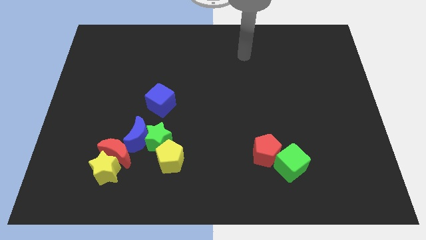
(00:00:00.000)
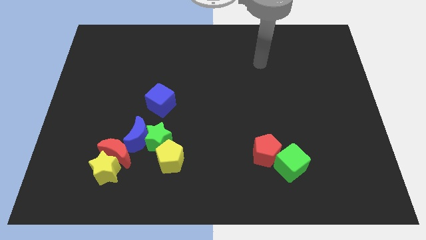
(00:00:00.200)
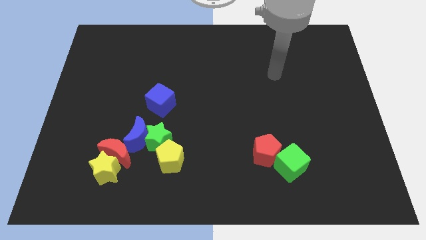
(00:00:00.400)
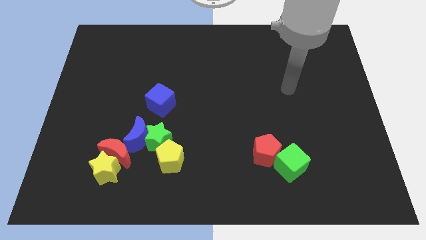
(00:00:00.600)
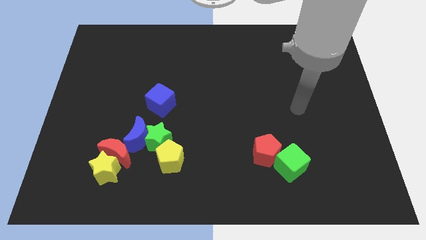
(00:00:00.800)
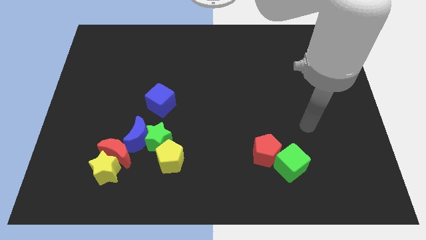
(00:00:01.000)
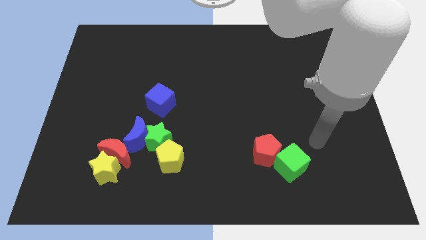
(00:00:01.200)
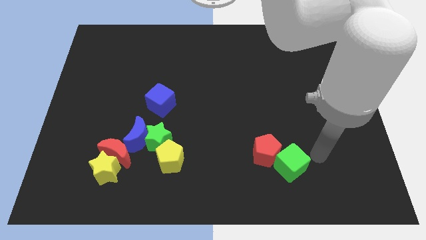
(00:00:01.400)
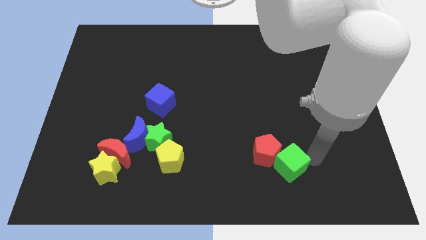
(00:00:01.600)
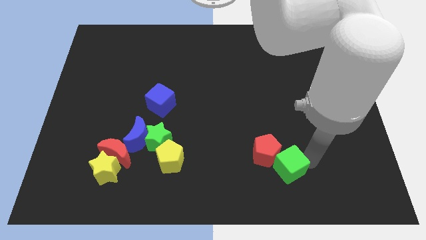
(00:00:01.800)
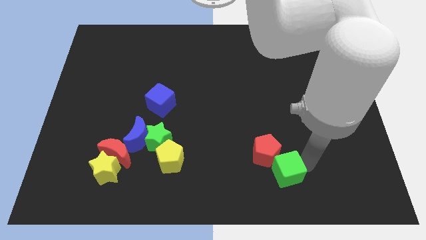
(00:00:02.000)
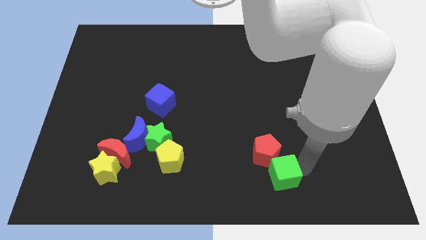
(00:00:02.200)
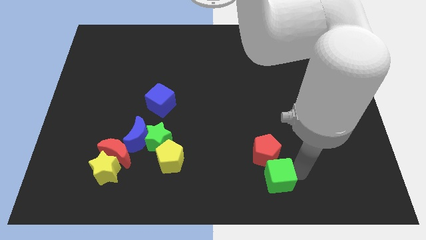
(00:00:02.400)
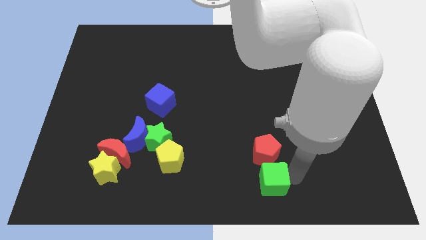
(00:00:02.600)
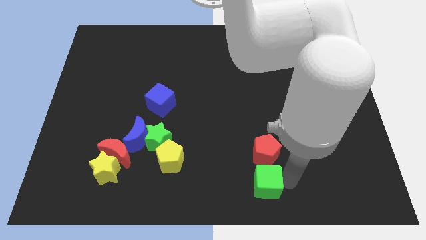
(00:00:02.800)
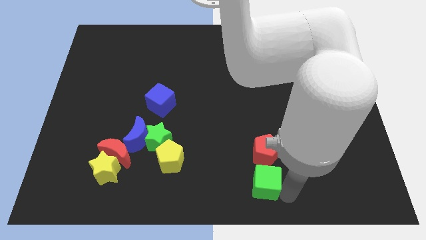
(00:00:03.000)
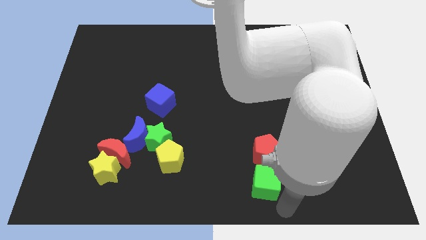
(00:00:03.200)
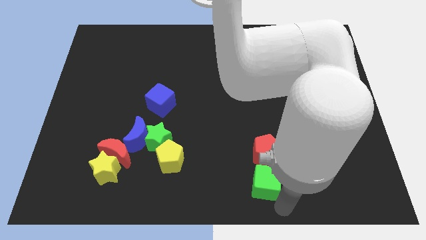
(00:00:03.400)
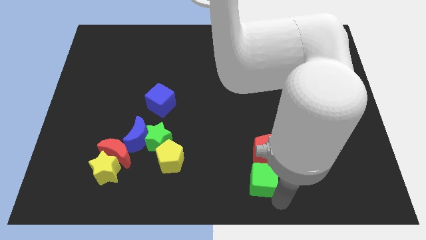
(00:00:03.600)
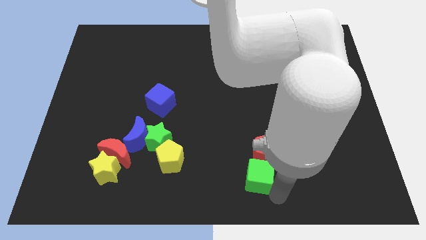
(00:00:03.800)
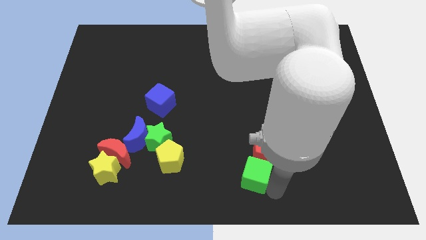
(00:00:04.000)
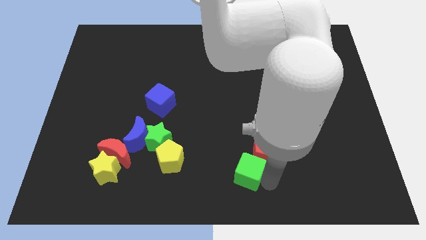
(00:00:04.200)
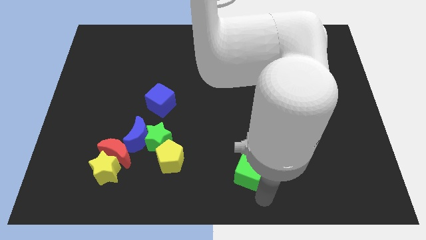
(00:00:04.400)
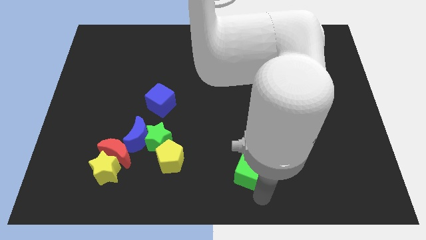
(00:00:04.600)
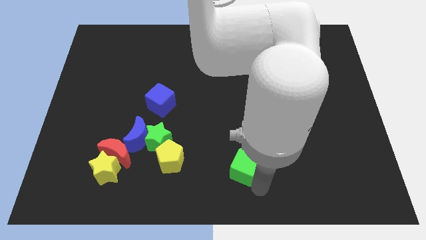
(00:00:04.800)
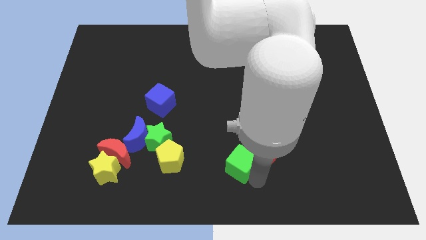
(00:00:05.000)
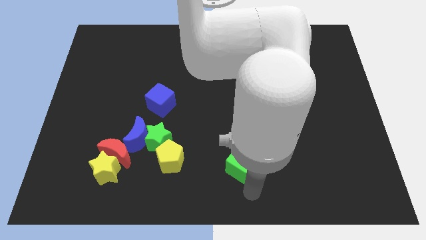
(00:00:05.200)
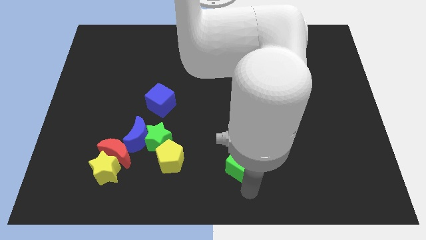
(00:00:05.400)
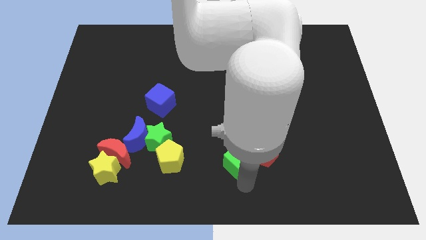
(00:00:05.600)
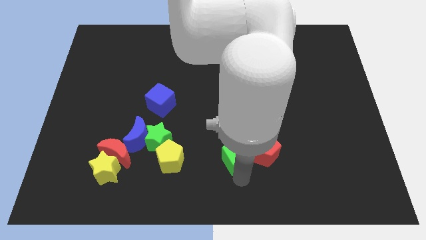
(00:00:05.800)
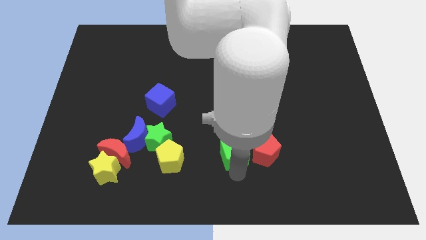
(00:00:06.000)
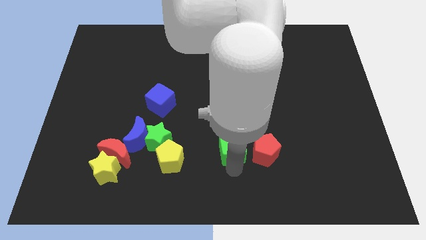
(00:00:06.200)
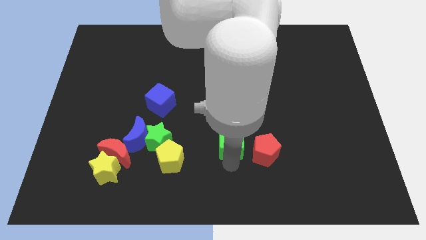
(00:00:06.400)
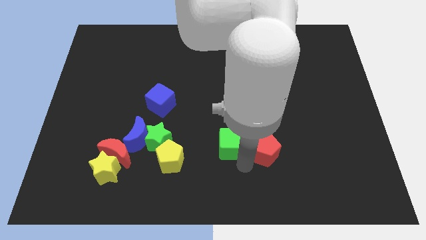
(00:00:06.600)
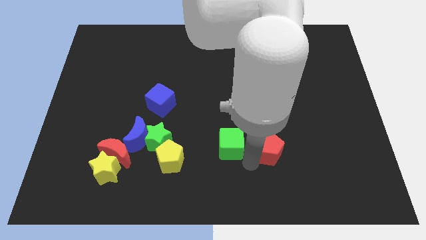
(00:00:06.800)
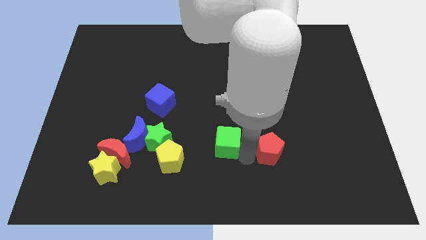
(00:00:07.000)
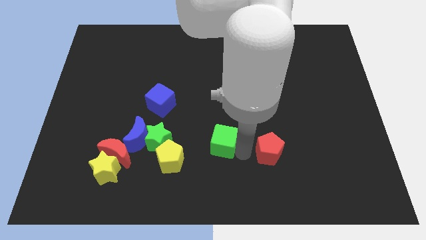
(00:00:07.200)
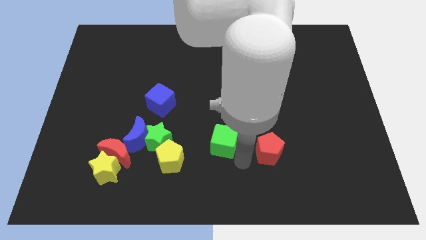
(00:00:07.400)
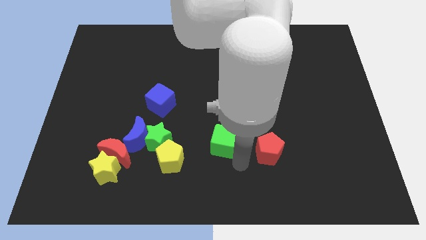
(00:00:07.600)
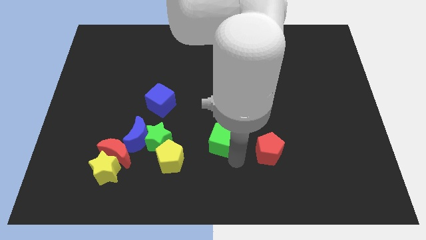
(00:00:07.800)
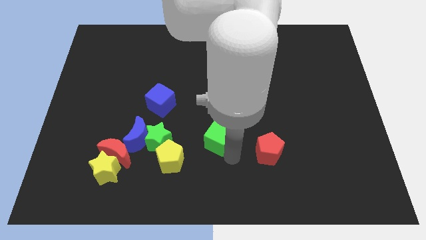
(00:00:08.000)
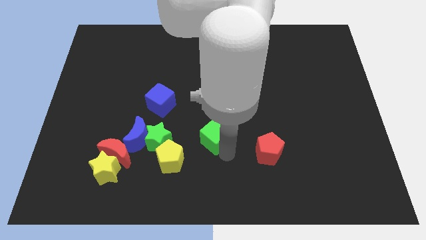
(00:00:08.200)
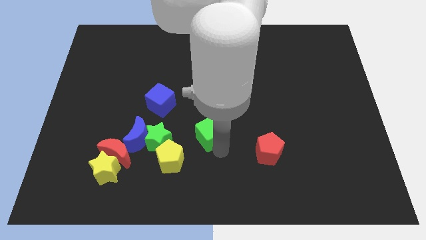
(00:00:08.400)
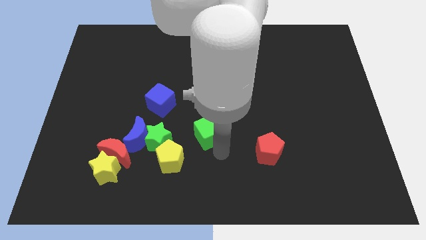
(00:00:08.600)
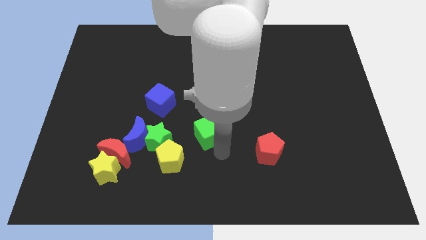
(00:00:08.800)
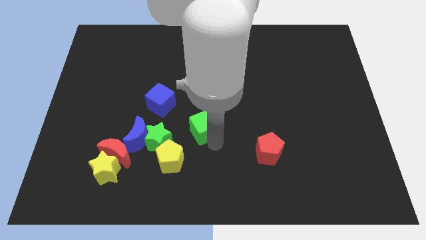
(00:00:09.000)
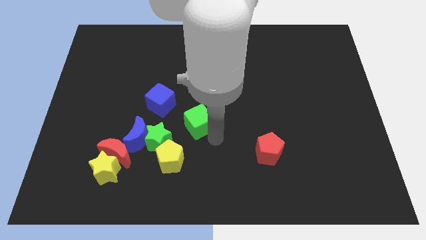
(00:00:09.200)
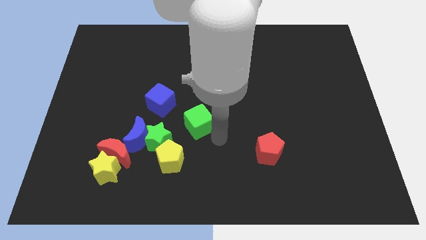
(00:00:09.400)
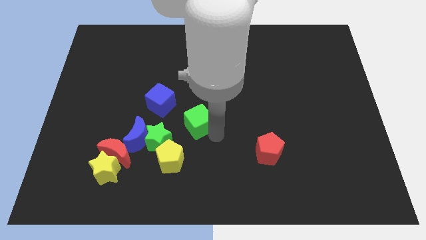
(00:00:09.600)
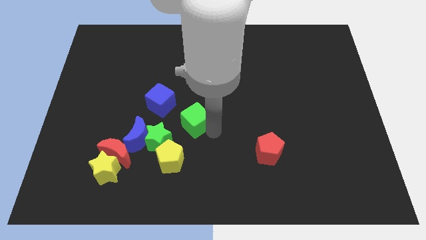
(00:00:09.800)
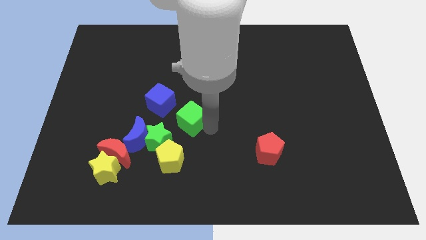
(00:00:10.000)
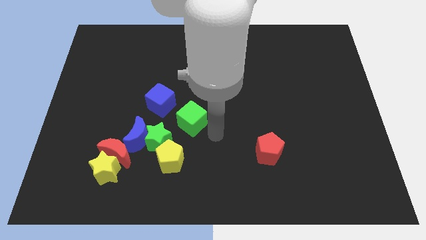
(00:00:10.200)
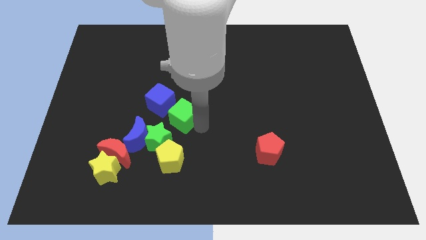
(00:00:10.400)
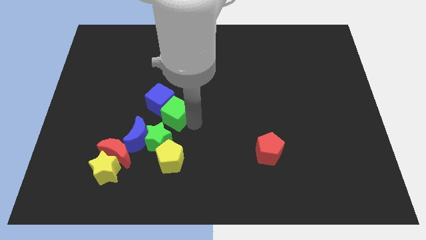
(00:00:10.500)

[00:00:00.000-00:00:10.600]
push the green cube towards the blue cube

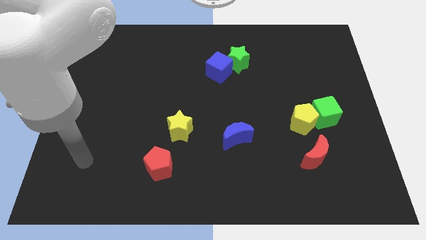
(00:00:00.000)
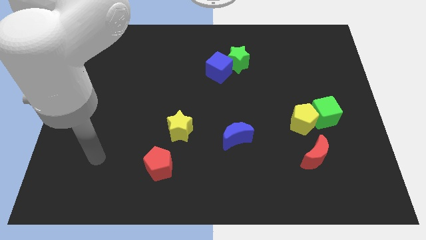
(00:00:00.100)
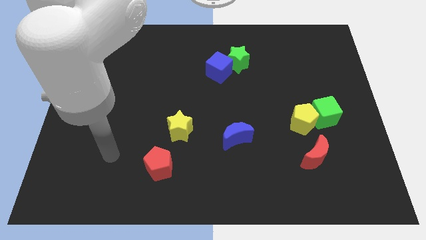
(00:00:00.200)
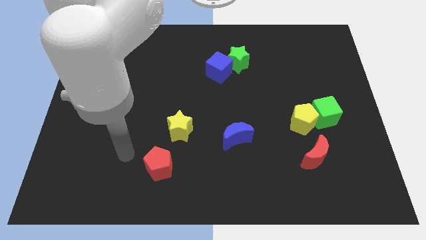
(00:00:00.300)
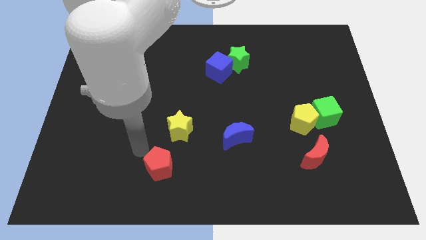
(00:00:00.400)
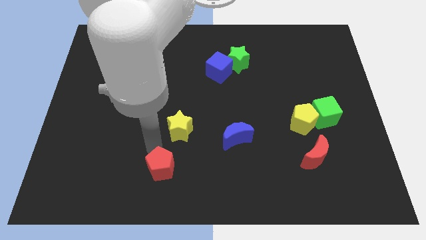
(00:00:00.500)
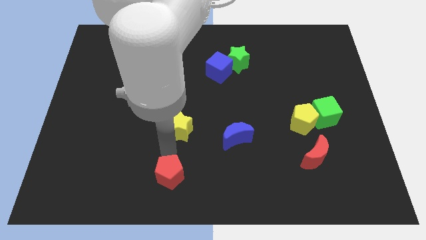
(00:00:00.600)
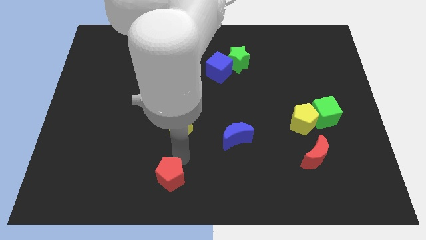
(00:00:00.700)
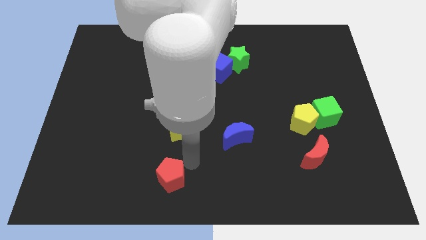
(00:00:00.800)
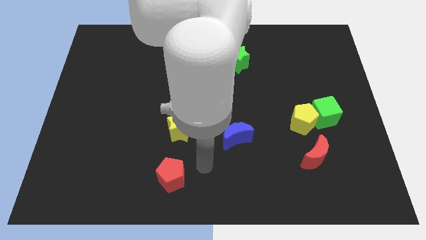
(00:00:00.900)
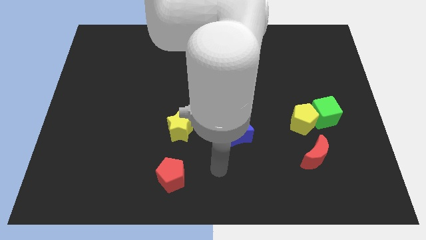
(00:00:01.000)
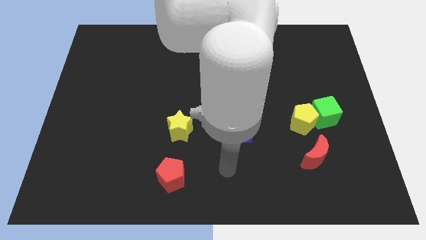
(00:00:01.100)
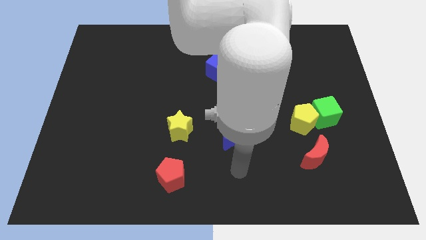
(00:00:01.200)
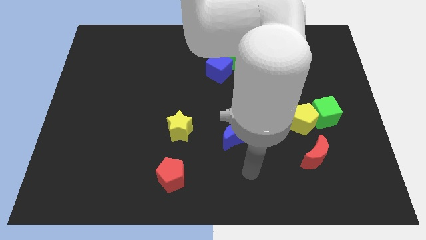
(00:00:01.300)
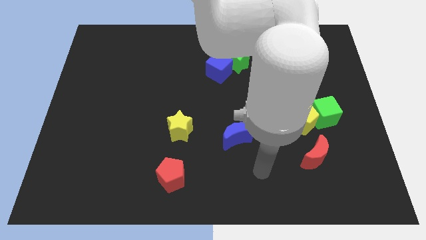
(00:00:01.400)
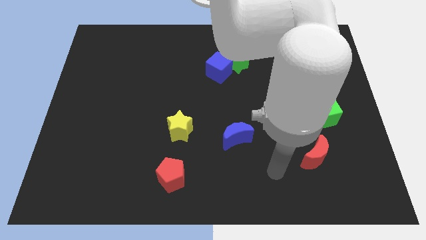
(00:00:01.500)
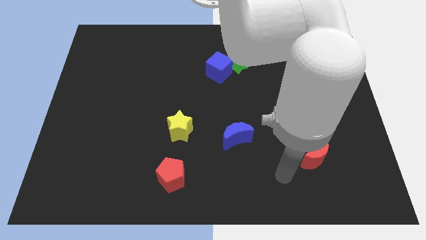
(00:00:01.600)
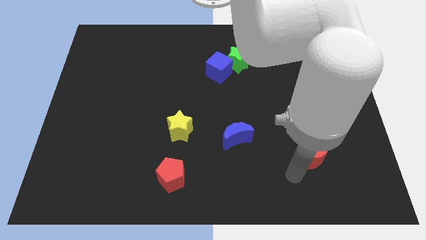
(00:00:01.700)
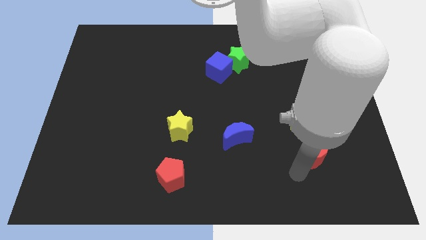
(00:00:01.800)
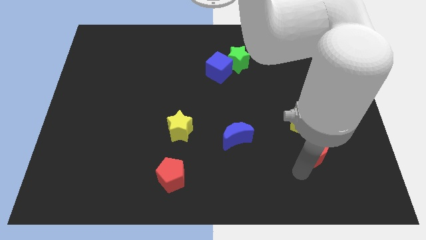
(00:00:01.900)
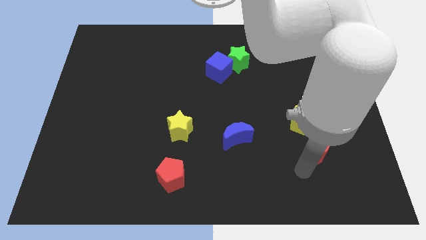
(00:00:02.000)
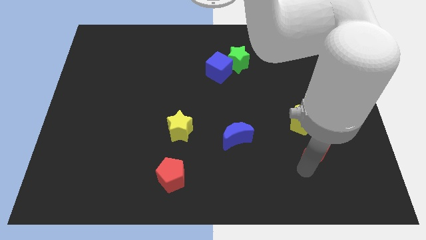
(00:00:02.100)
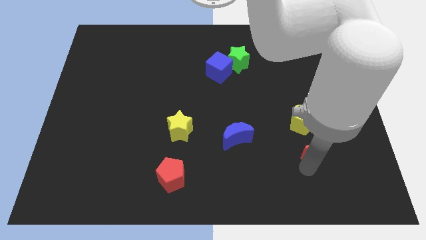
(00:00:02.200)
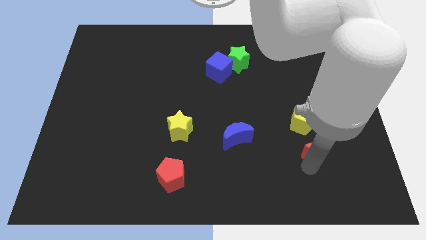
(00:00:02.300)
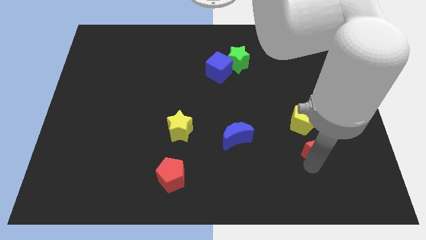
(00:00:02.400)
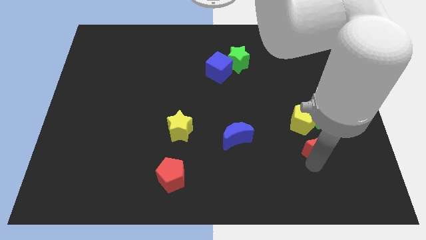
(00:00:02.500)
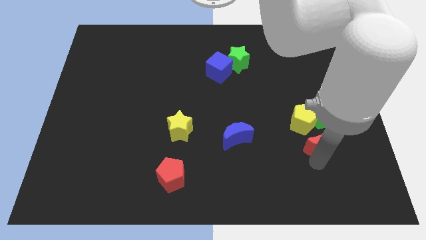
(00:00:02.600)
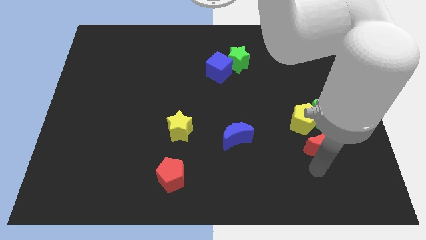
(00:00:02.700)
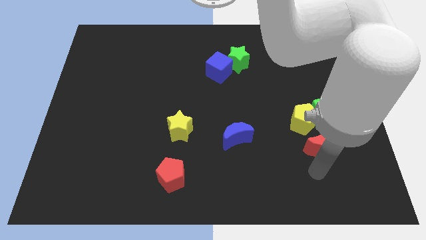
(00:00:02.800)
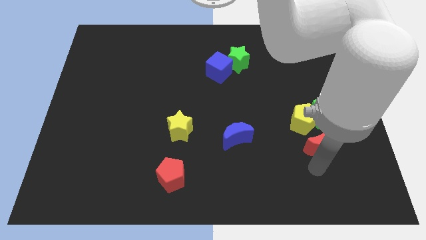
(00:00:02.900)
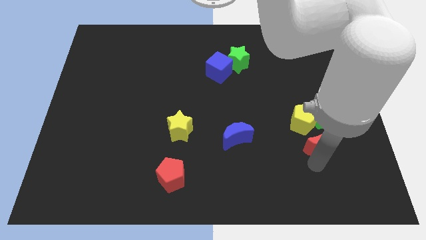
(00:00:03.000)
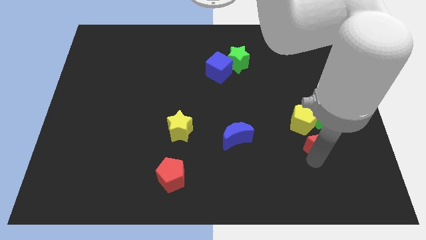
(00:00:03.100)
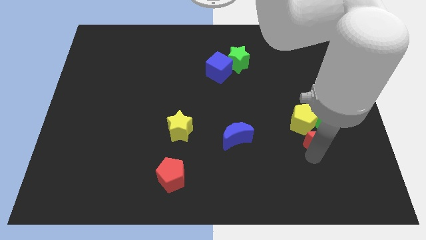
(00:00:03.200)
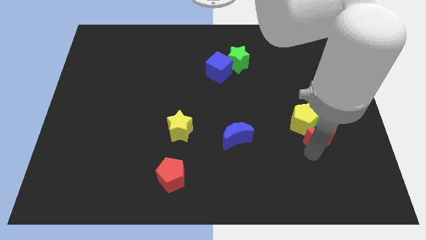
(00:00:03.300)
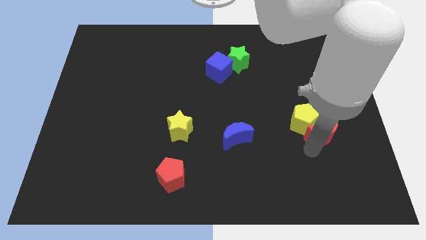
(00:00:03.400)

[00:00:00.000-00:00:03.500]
push the red moon next to the green cube
